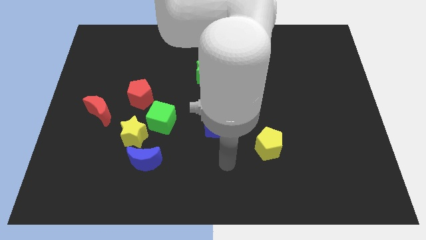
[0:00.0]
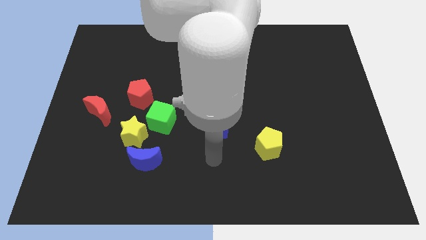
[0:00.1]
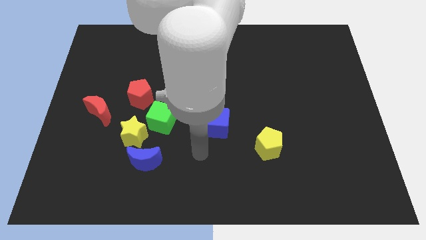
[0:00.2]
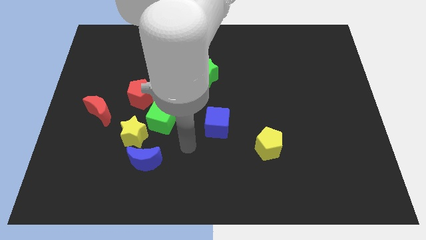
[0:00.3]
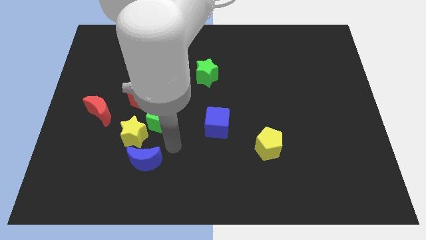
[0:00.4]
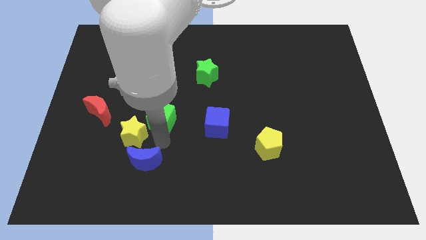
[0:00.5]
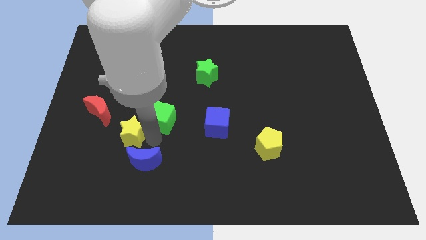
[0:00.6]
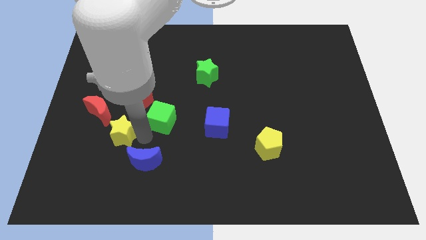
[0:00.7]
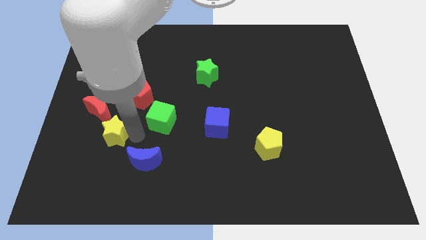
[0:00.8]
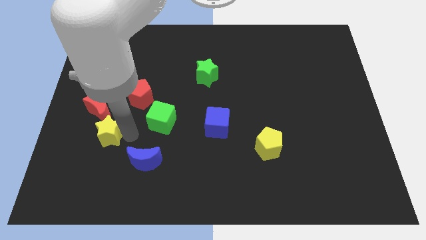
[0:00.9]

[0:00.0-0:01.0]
separate the yellow star from the green cube and blue moon

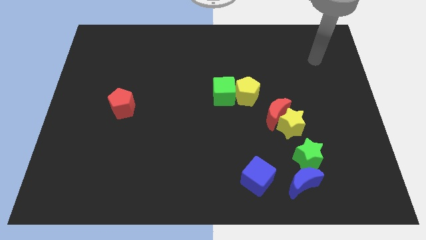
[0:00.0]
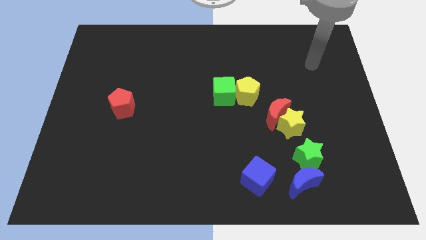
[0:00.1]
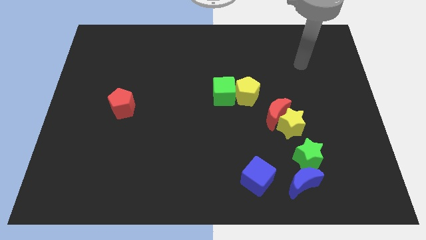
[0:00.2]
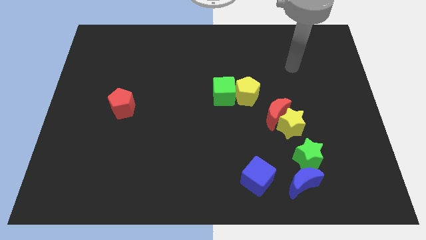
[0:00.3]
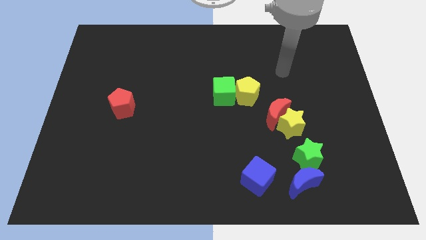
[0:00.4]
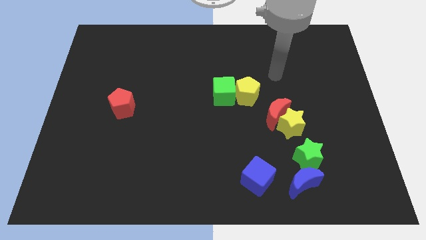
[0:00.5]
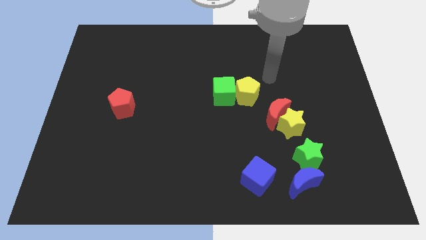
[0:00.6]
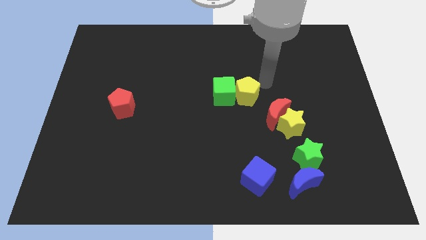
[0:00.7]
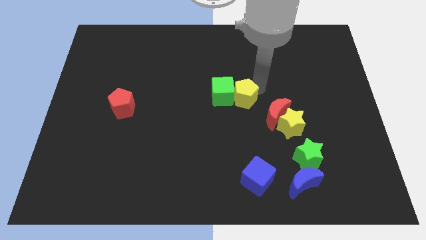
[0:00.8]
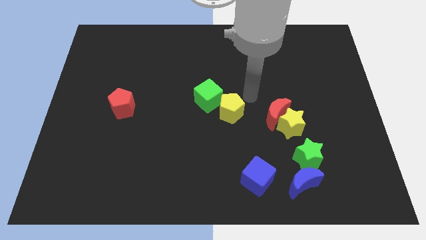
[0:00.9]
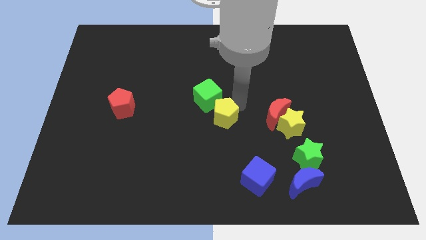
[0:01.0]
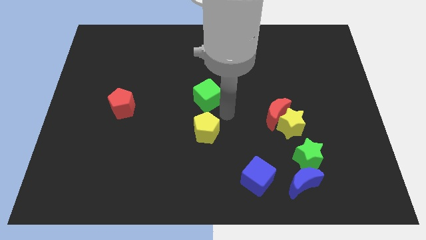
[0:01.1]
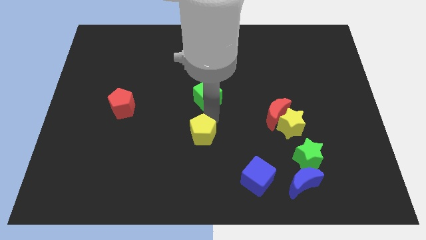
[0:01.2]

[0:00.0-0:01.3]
pull the green cube apart from the yellow pentagon

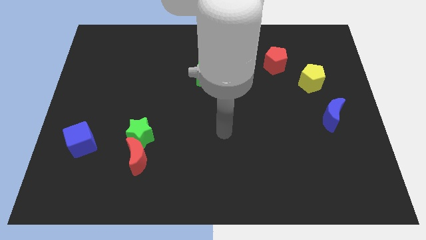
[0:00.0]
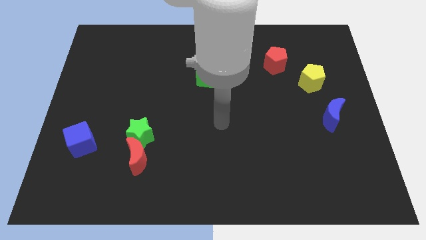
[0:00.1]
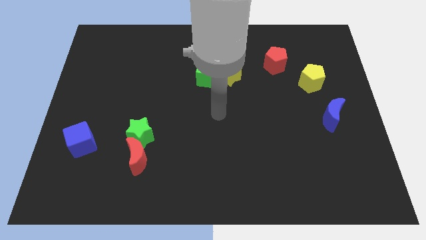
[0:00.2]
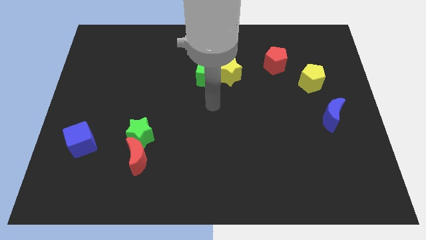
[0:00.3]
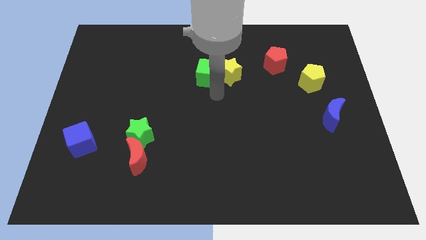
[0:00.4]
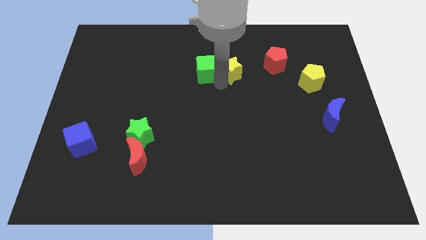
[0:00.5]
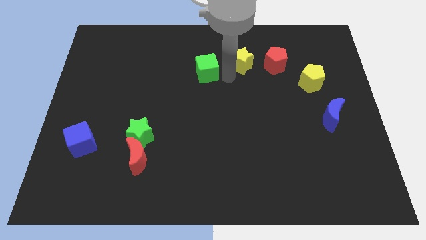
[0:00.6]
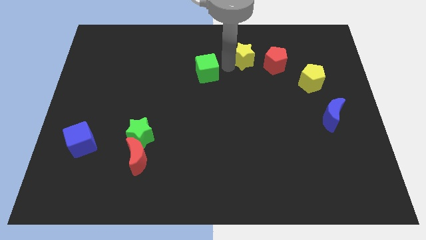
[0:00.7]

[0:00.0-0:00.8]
pull the green cube apart from the yellow star

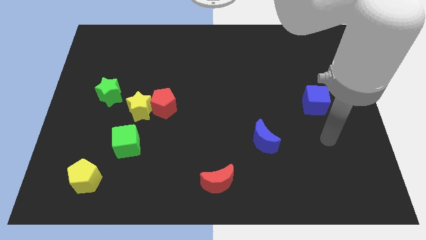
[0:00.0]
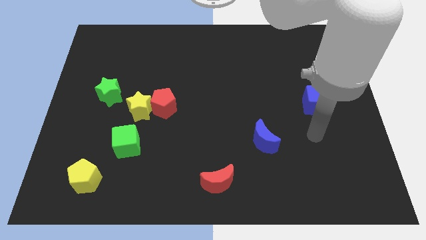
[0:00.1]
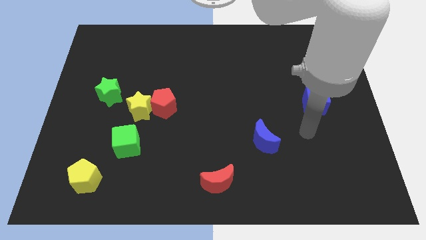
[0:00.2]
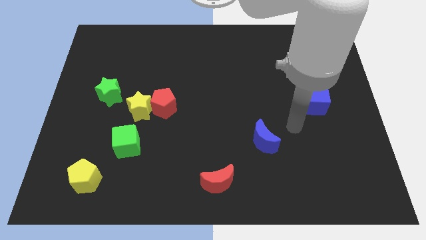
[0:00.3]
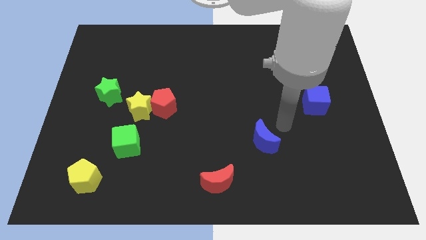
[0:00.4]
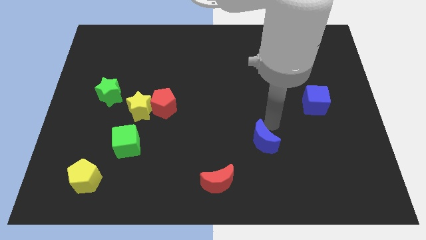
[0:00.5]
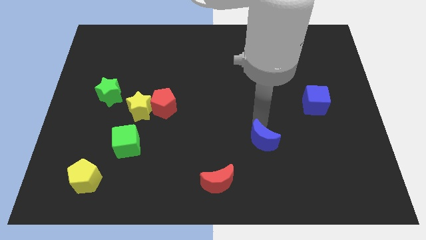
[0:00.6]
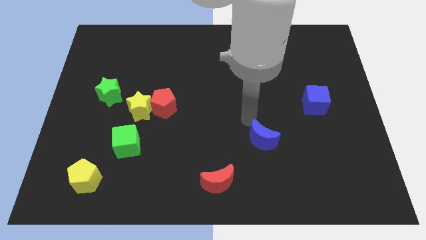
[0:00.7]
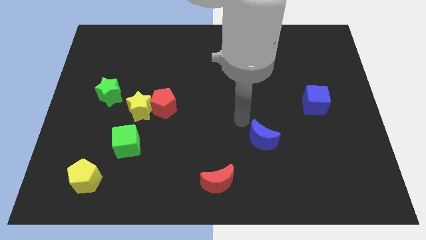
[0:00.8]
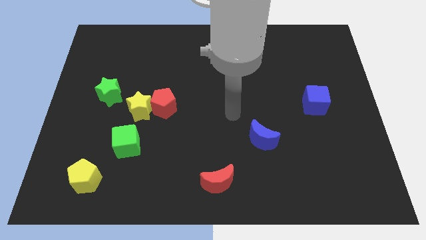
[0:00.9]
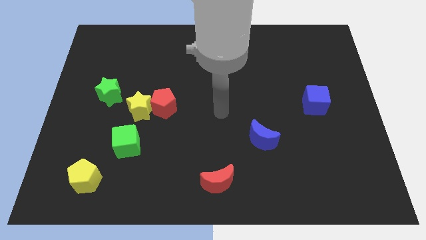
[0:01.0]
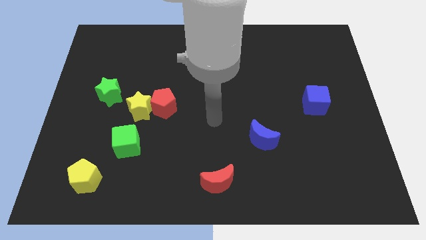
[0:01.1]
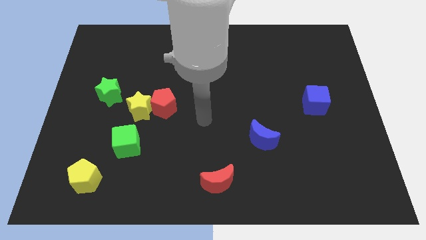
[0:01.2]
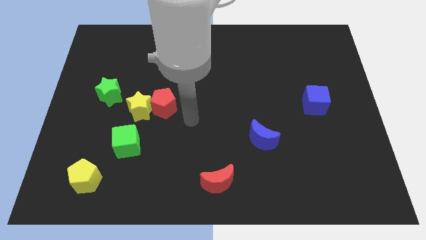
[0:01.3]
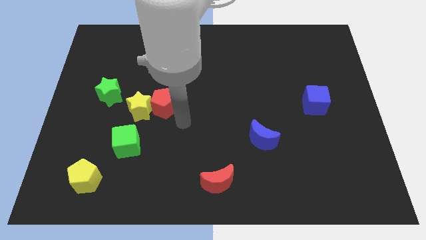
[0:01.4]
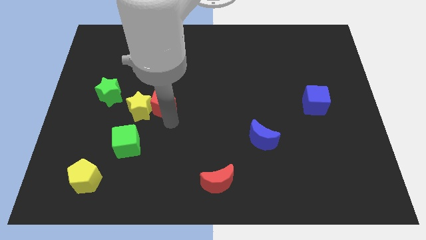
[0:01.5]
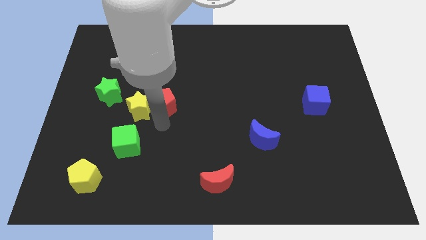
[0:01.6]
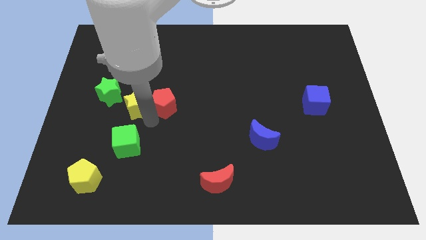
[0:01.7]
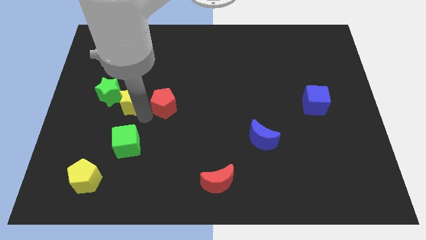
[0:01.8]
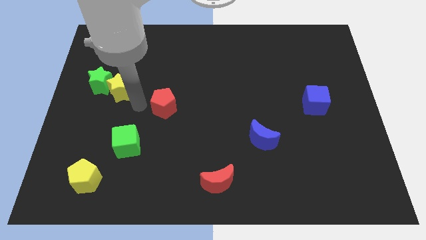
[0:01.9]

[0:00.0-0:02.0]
pull the red pentagon apart from the yellow star

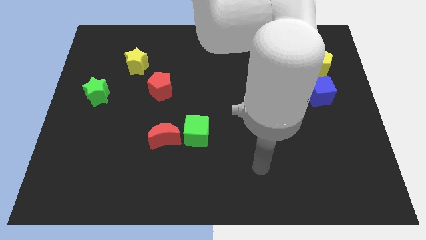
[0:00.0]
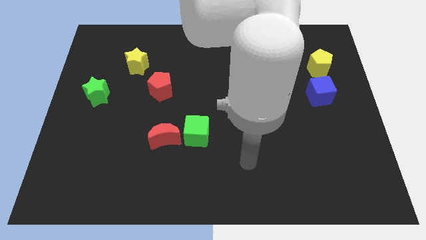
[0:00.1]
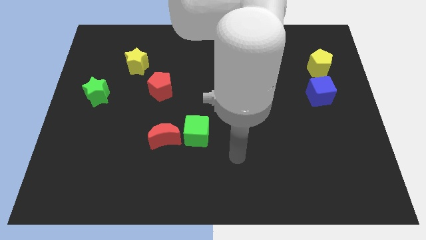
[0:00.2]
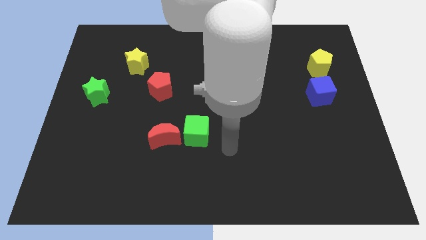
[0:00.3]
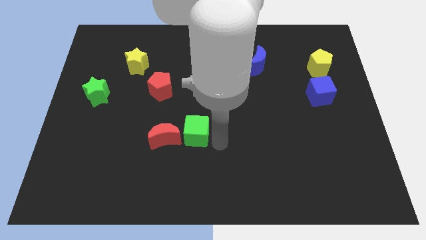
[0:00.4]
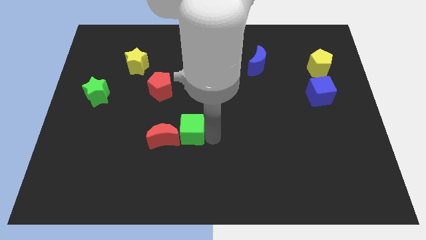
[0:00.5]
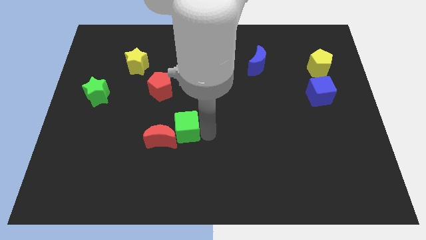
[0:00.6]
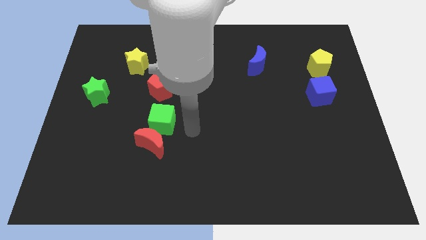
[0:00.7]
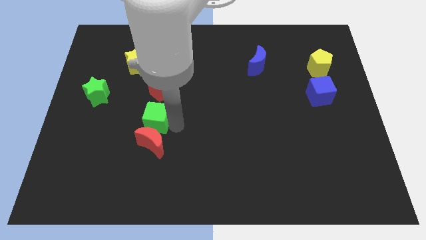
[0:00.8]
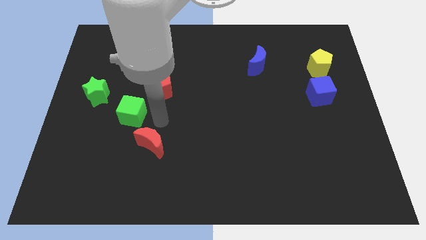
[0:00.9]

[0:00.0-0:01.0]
separate the red moon from the green cube

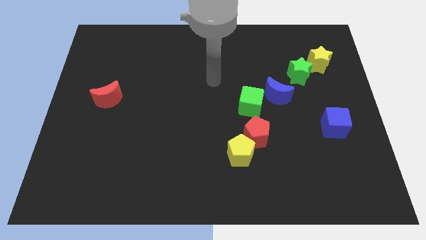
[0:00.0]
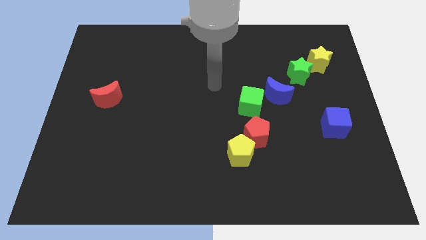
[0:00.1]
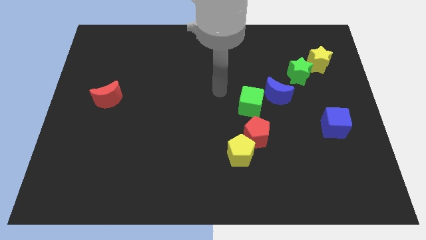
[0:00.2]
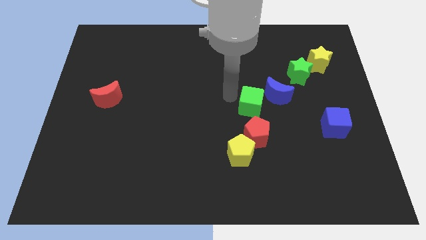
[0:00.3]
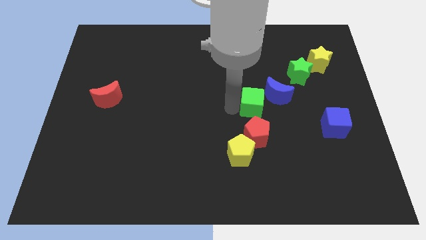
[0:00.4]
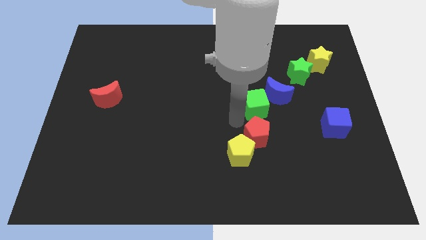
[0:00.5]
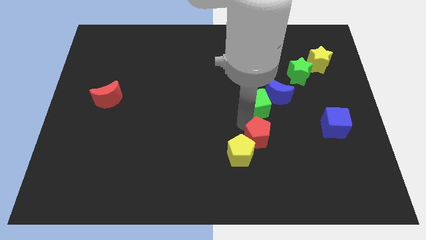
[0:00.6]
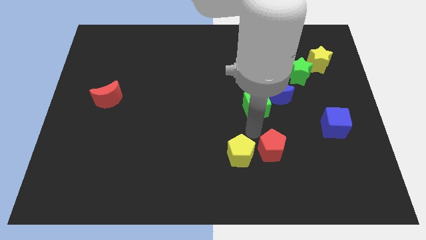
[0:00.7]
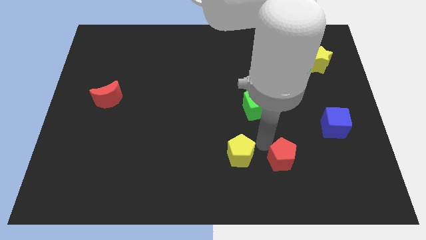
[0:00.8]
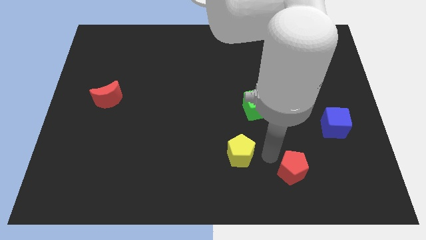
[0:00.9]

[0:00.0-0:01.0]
move the yellow pentagon away from the red pentagon

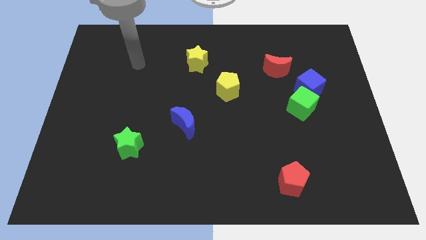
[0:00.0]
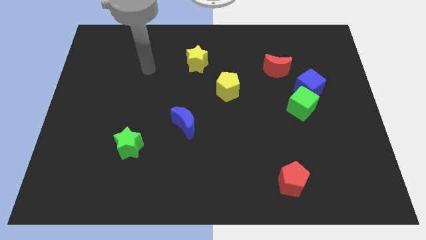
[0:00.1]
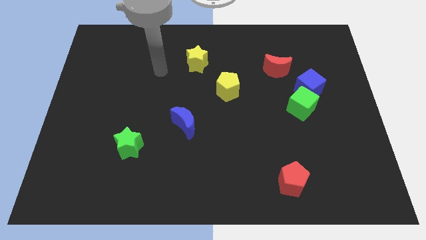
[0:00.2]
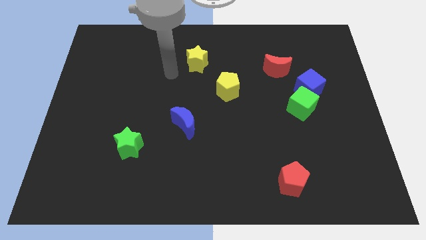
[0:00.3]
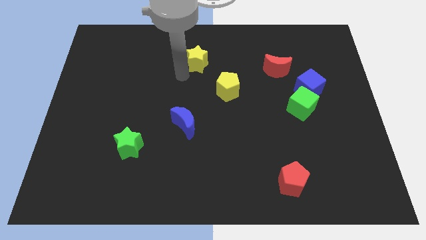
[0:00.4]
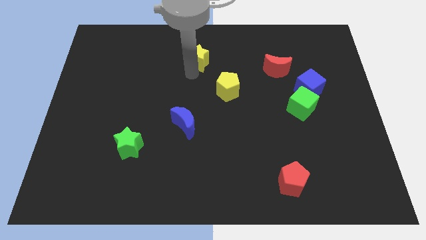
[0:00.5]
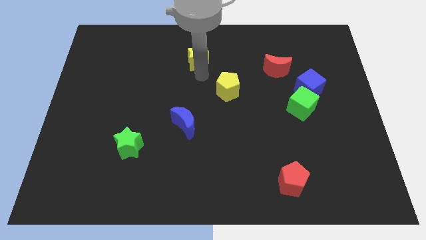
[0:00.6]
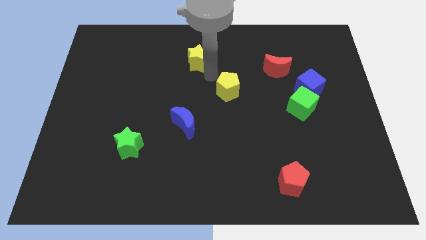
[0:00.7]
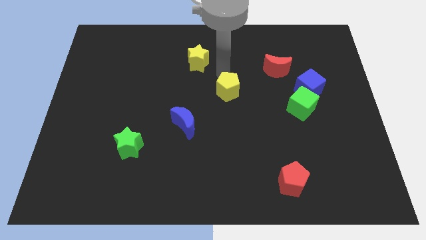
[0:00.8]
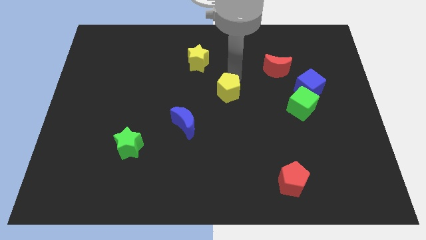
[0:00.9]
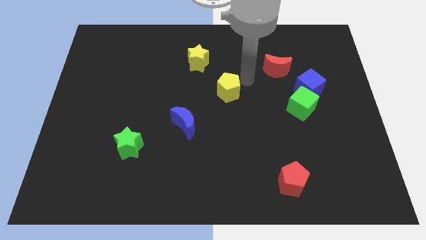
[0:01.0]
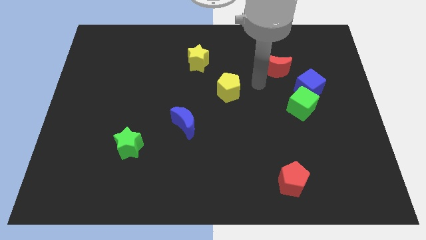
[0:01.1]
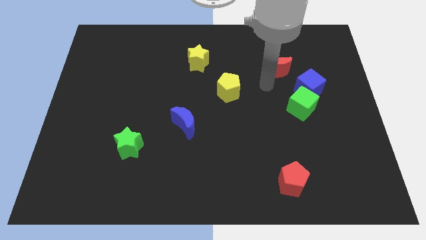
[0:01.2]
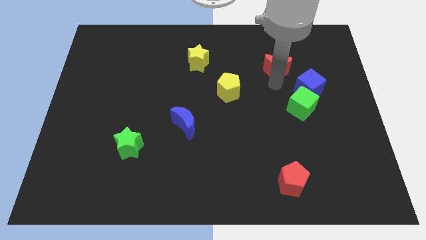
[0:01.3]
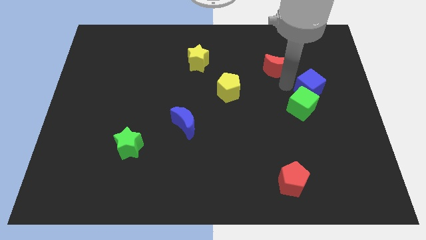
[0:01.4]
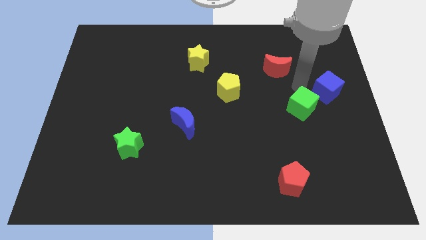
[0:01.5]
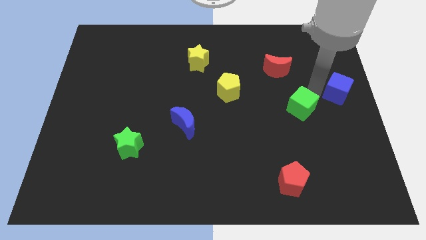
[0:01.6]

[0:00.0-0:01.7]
separate the green cube from the blue cube

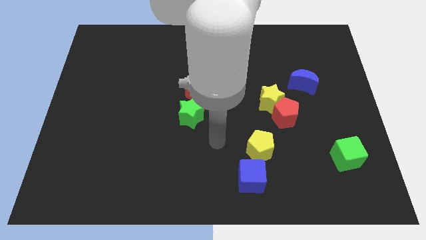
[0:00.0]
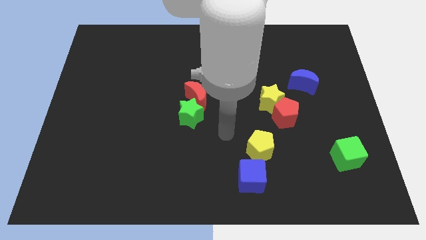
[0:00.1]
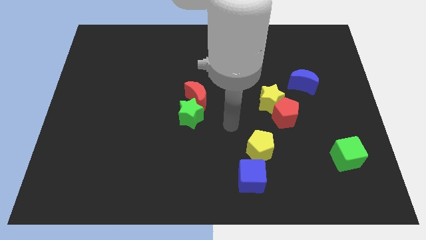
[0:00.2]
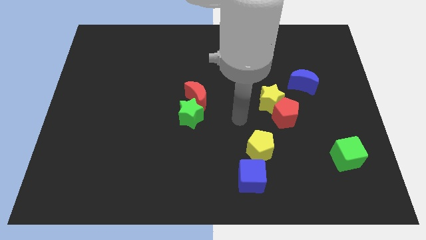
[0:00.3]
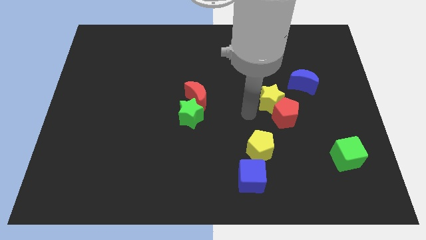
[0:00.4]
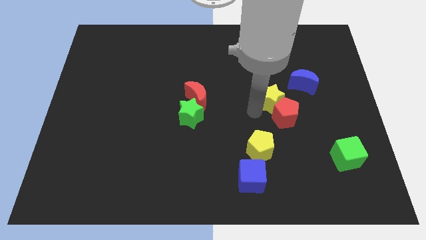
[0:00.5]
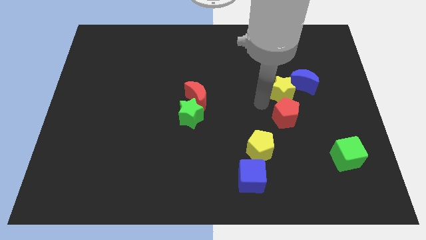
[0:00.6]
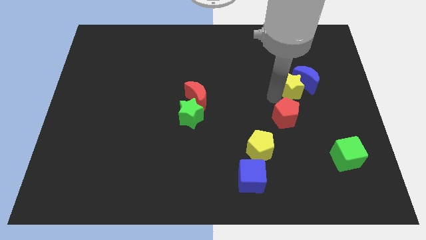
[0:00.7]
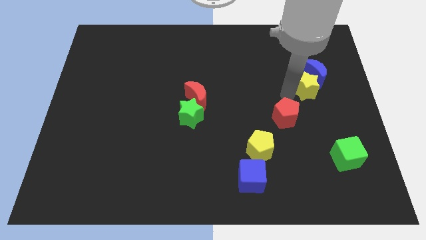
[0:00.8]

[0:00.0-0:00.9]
separate the red pentagon from the yellow star
